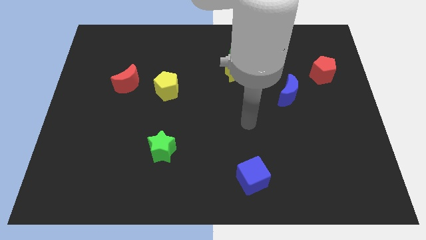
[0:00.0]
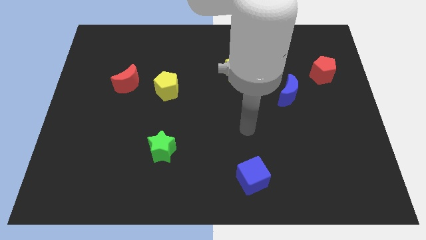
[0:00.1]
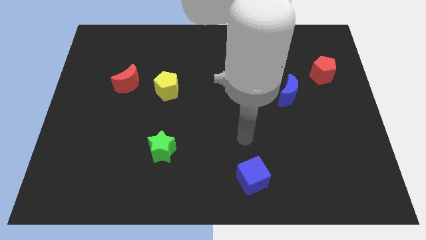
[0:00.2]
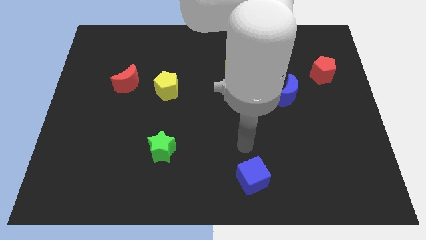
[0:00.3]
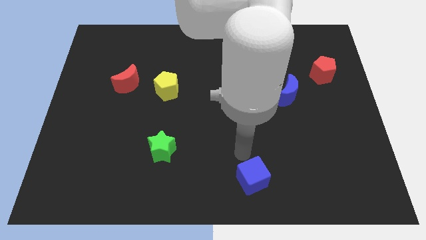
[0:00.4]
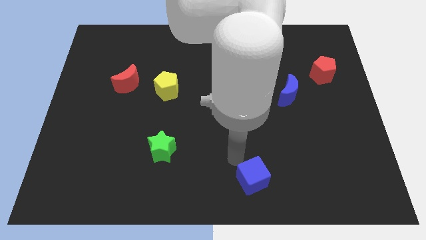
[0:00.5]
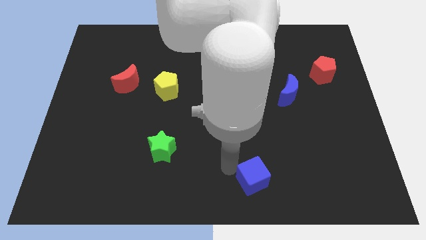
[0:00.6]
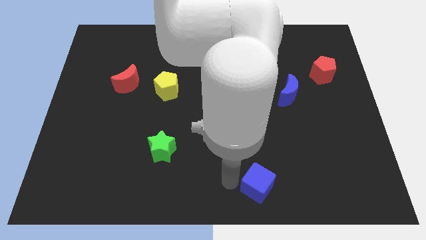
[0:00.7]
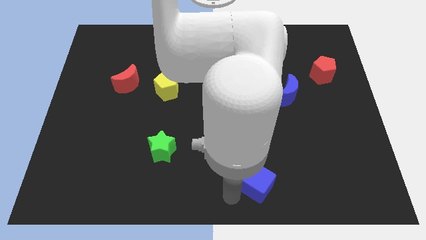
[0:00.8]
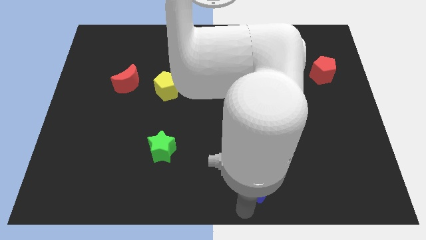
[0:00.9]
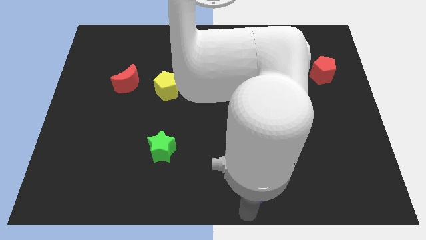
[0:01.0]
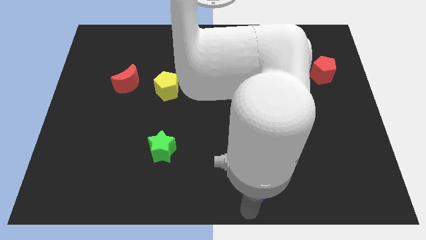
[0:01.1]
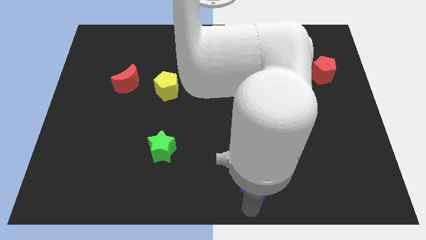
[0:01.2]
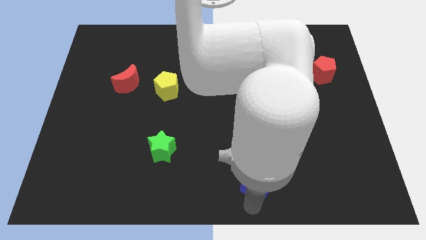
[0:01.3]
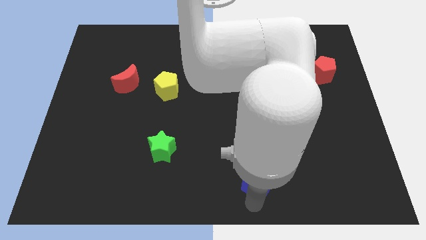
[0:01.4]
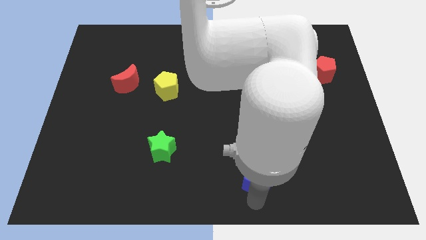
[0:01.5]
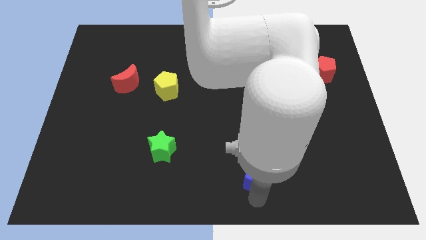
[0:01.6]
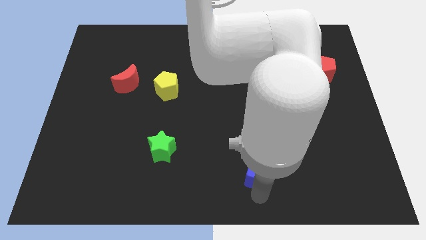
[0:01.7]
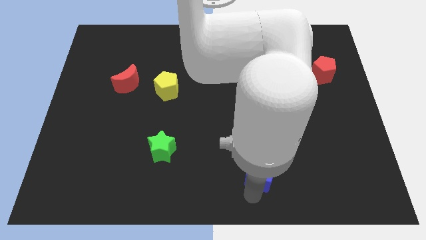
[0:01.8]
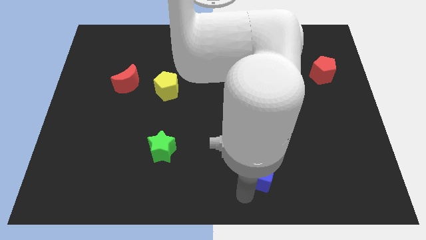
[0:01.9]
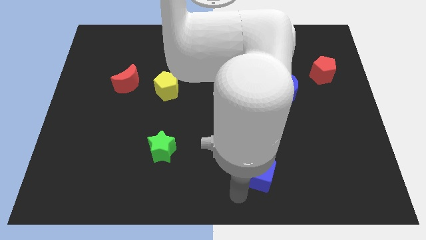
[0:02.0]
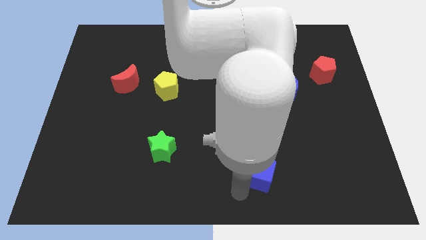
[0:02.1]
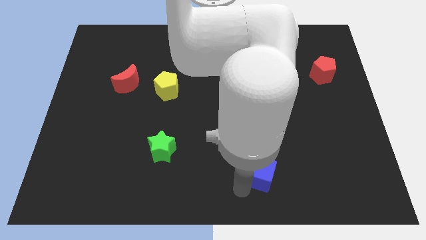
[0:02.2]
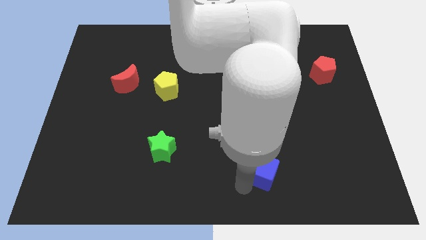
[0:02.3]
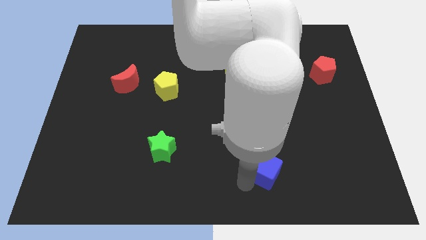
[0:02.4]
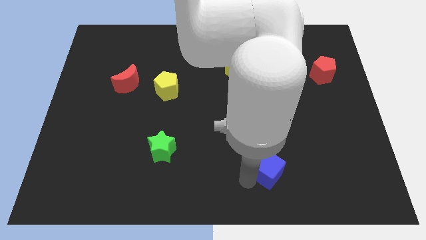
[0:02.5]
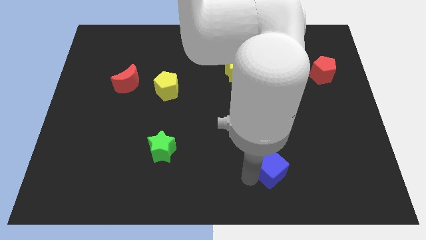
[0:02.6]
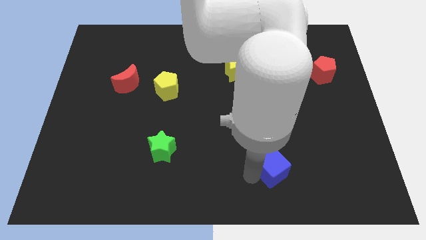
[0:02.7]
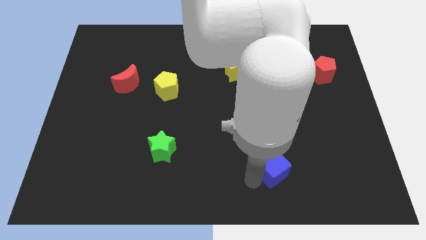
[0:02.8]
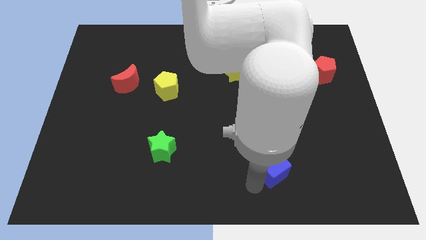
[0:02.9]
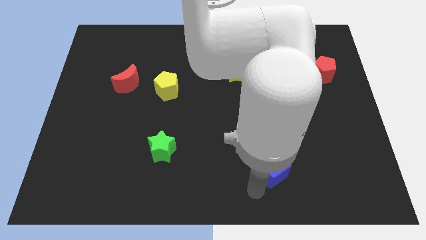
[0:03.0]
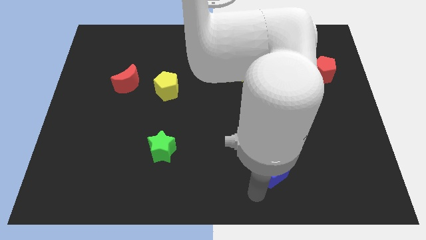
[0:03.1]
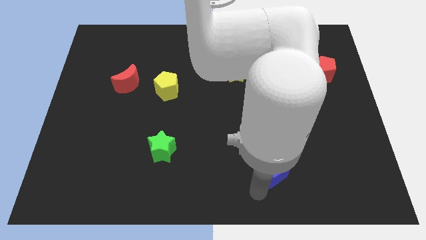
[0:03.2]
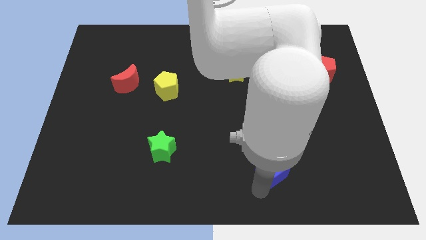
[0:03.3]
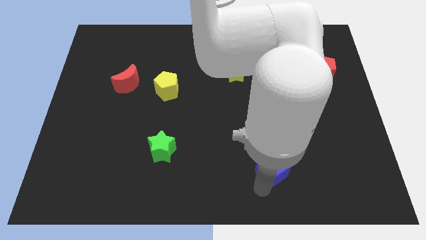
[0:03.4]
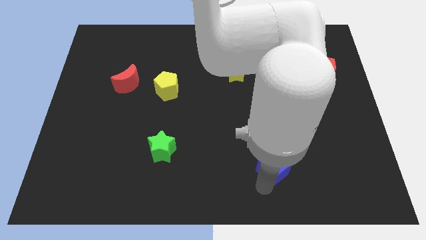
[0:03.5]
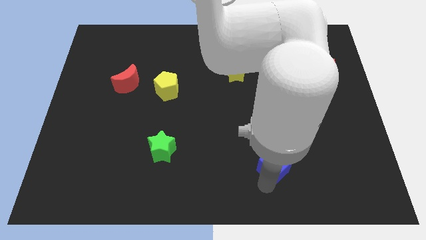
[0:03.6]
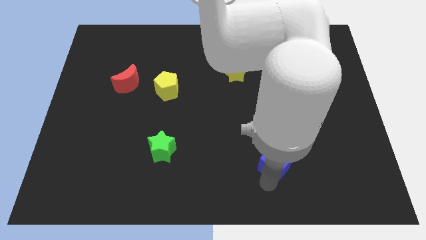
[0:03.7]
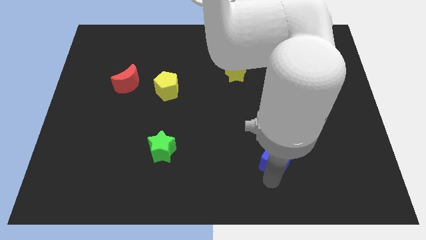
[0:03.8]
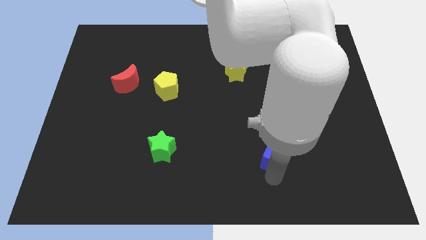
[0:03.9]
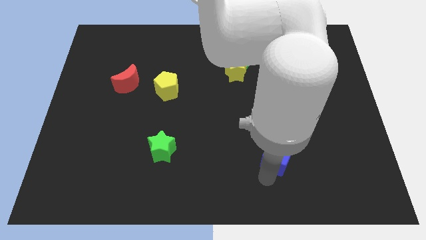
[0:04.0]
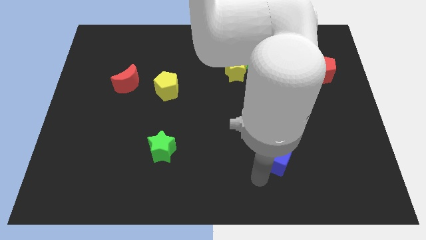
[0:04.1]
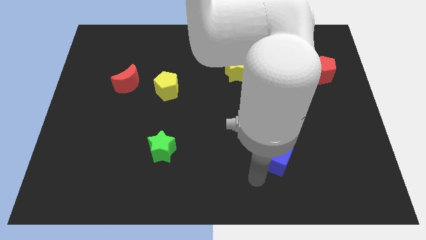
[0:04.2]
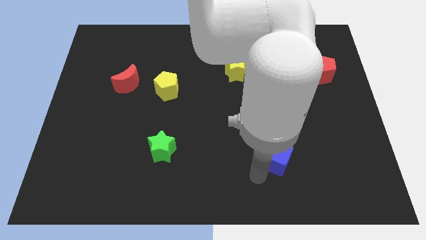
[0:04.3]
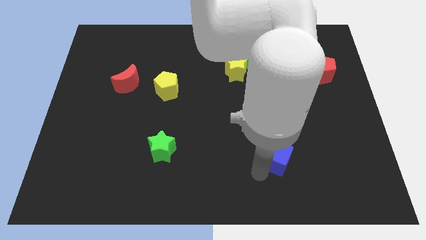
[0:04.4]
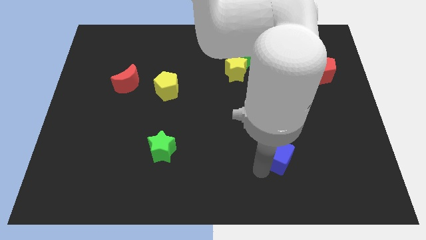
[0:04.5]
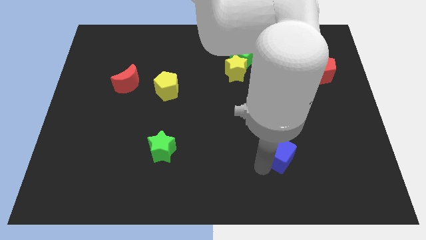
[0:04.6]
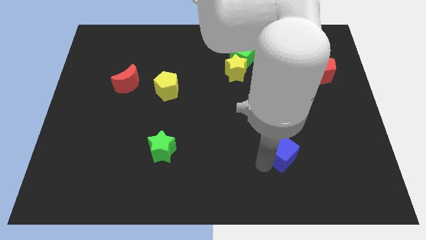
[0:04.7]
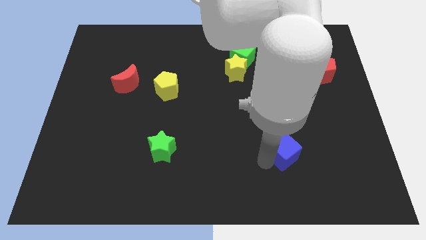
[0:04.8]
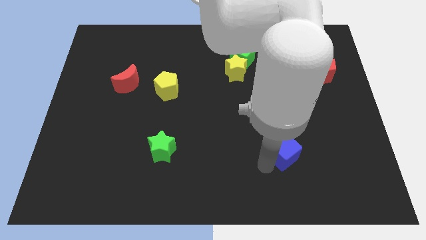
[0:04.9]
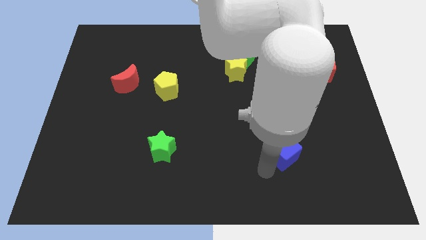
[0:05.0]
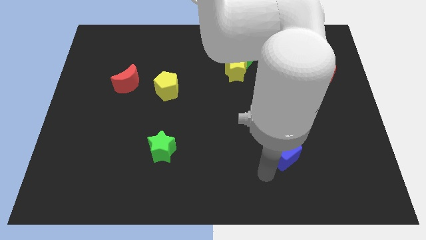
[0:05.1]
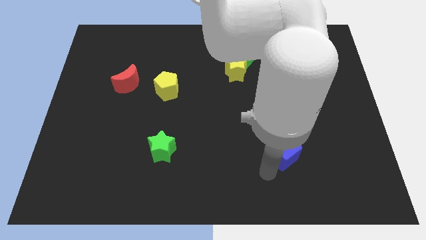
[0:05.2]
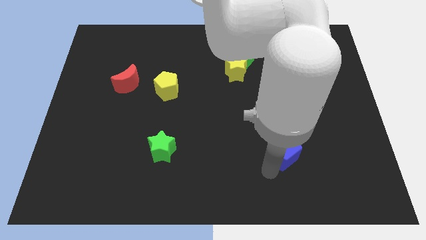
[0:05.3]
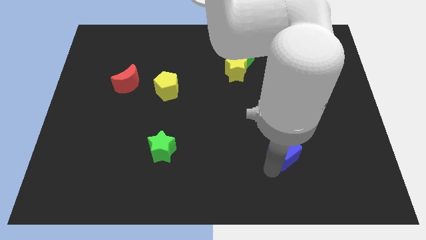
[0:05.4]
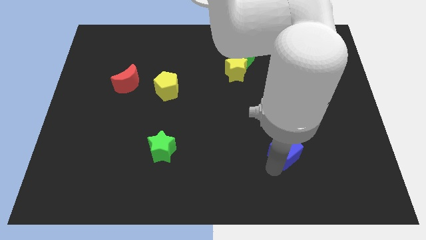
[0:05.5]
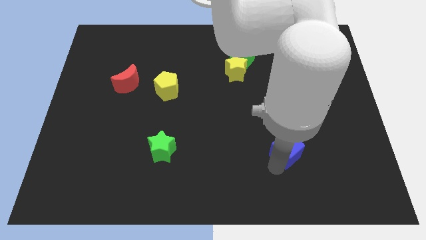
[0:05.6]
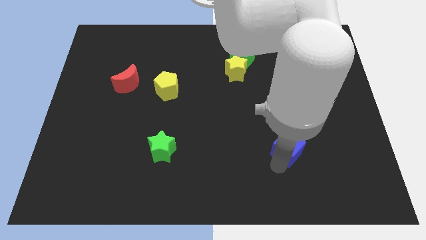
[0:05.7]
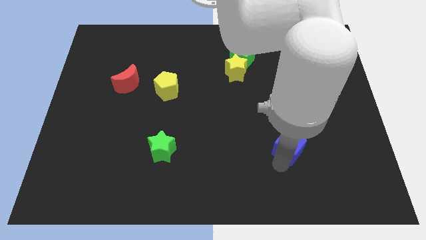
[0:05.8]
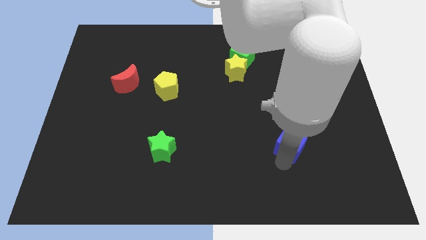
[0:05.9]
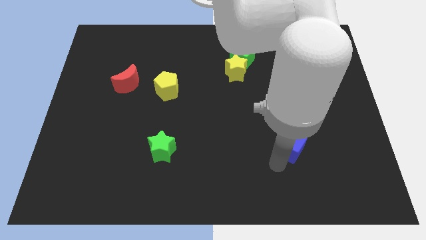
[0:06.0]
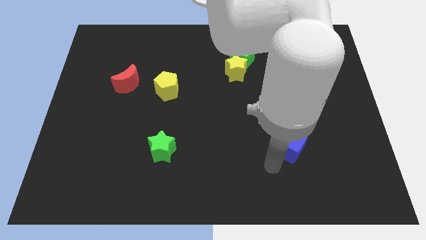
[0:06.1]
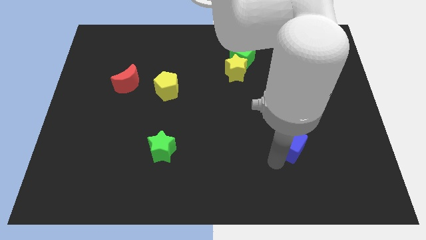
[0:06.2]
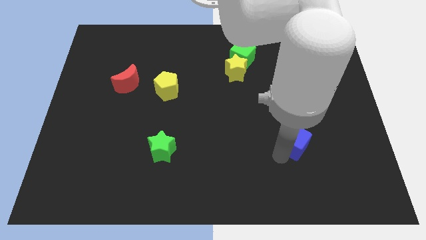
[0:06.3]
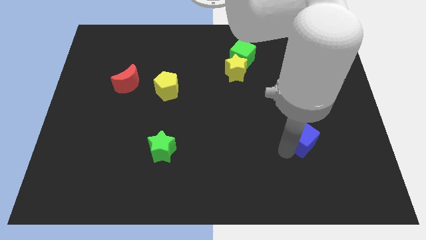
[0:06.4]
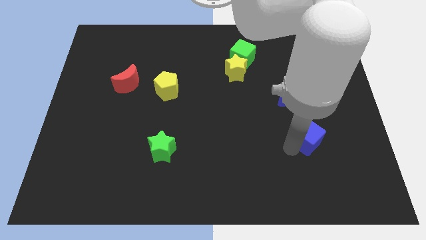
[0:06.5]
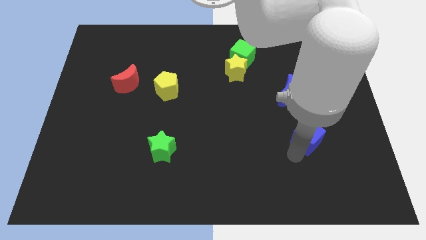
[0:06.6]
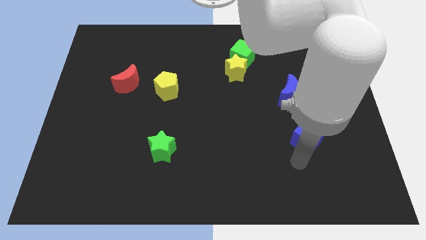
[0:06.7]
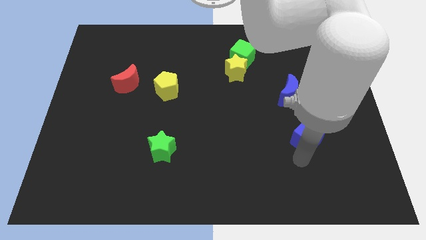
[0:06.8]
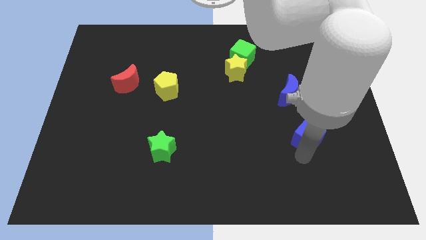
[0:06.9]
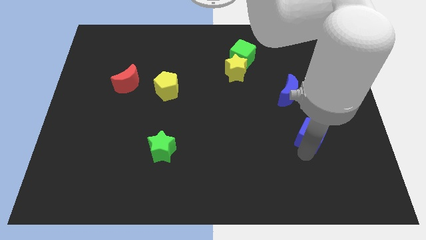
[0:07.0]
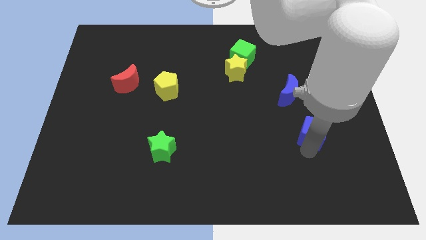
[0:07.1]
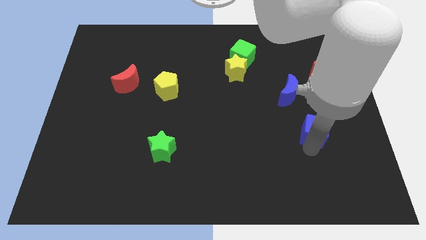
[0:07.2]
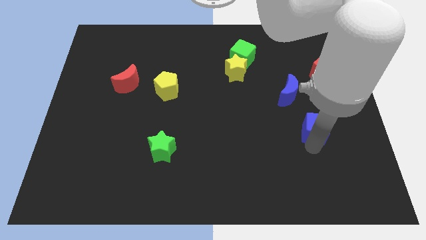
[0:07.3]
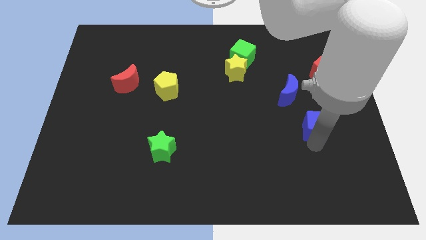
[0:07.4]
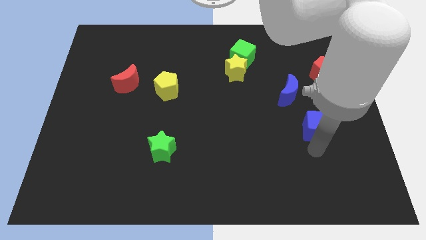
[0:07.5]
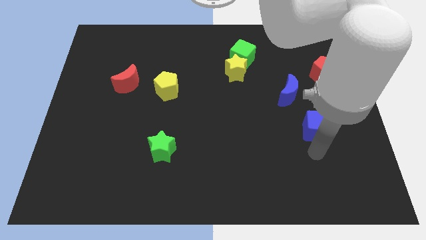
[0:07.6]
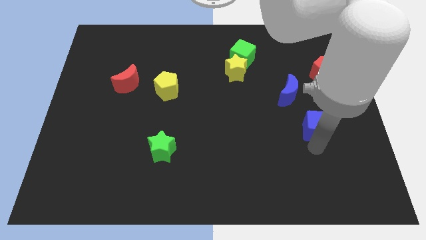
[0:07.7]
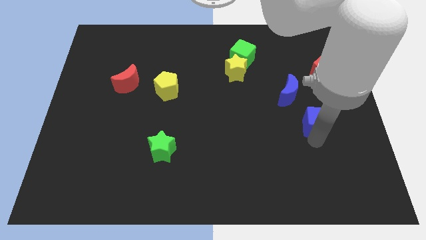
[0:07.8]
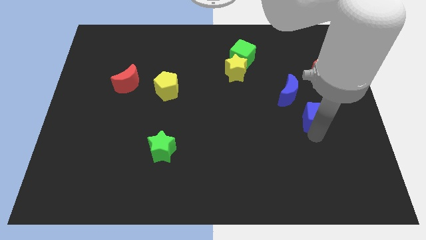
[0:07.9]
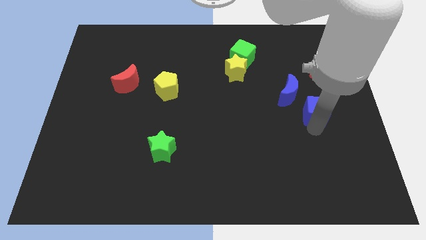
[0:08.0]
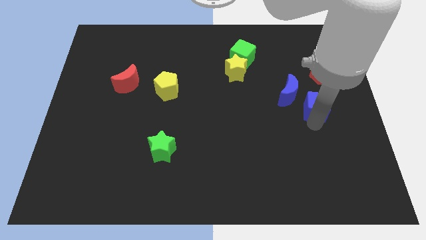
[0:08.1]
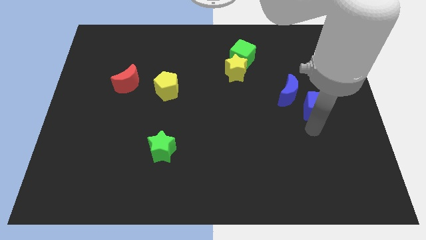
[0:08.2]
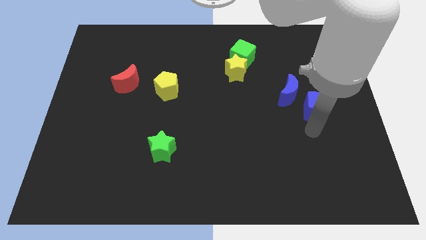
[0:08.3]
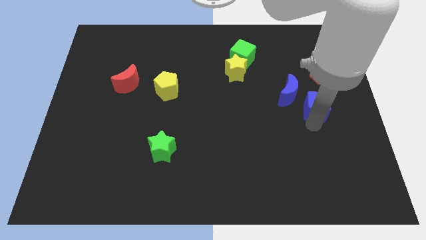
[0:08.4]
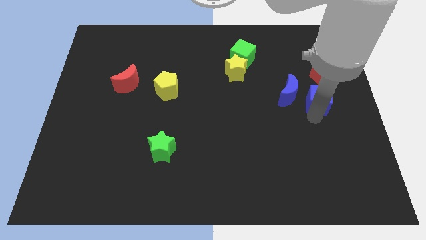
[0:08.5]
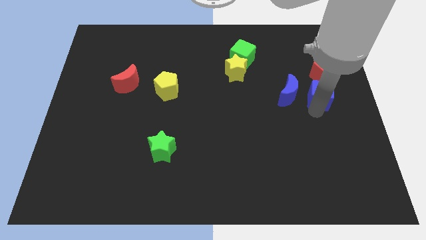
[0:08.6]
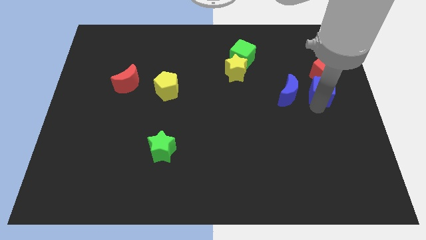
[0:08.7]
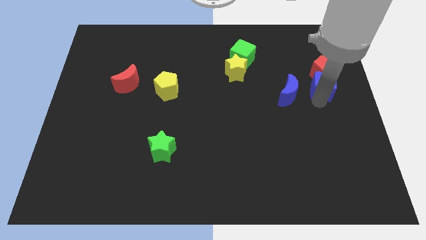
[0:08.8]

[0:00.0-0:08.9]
slide the blue cube towards the red pentagon
